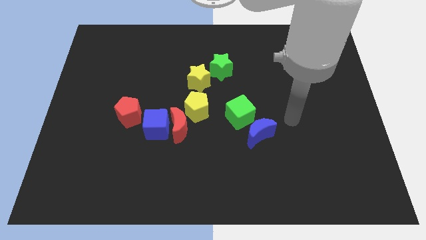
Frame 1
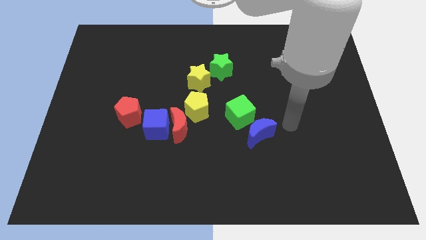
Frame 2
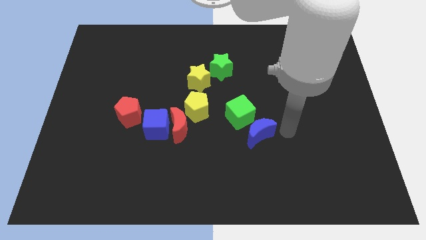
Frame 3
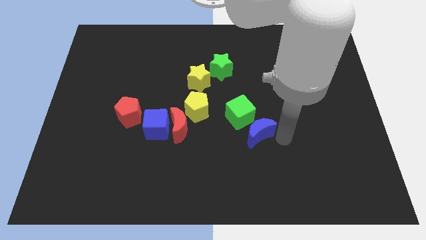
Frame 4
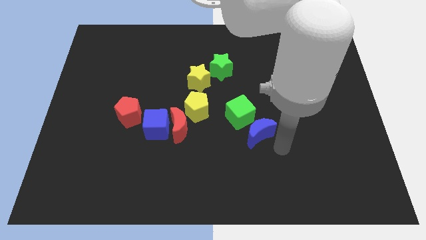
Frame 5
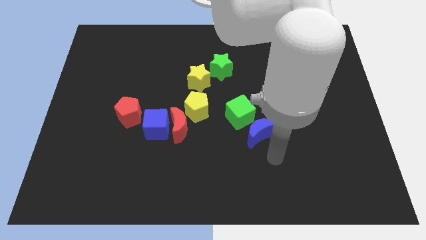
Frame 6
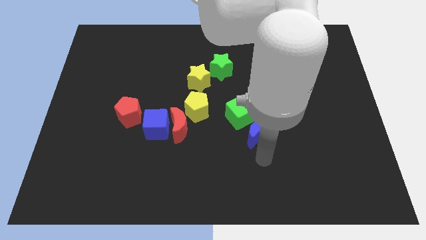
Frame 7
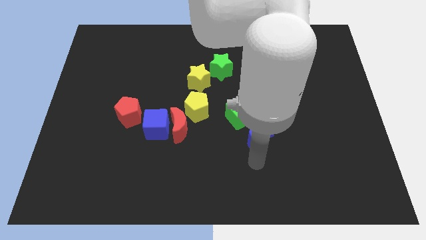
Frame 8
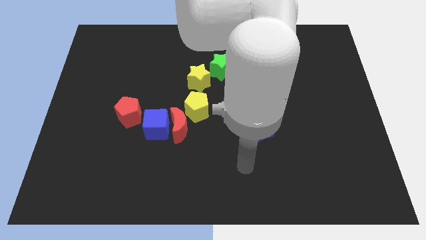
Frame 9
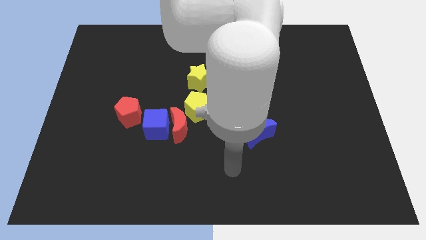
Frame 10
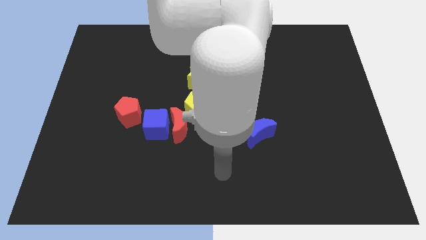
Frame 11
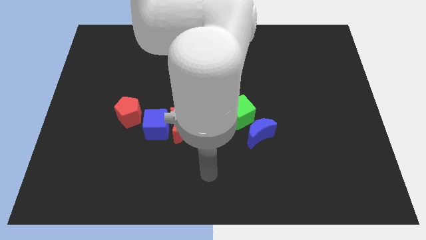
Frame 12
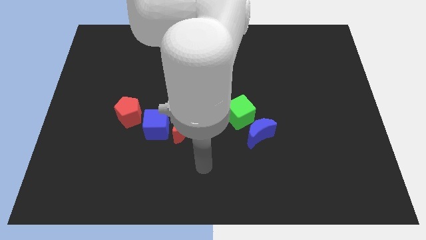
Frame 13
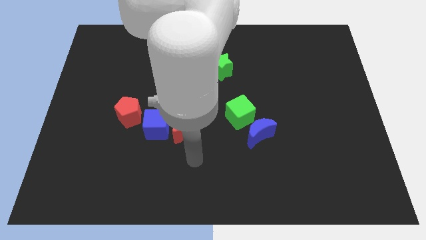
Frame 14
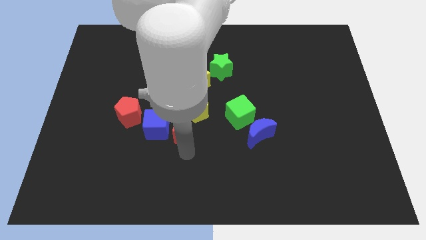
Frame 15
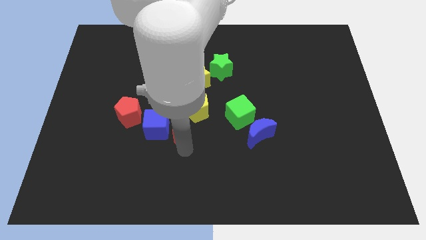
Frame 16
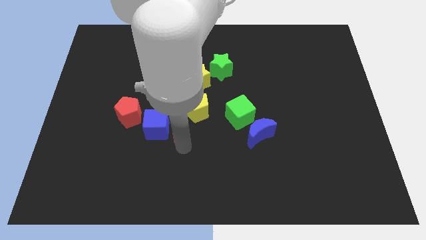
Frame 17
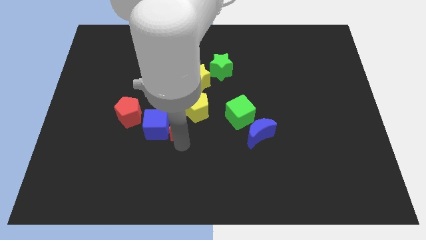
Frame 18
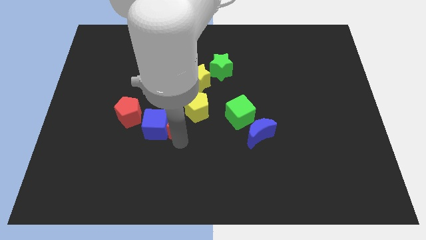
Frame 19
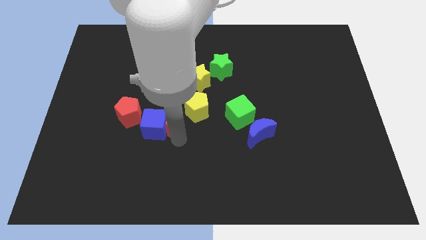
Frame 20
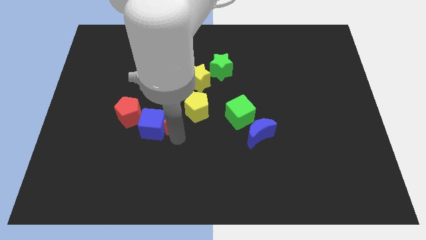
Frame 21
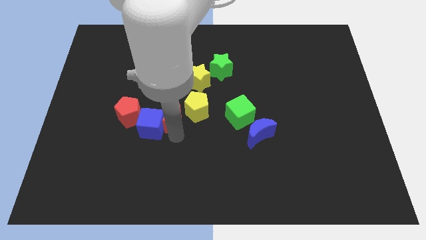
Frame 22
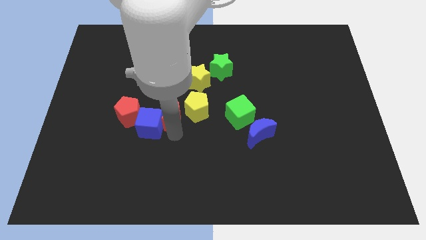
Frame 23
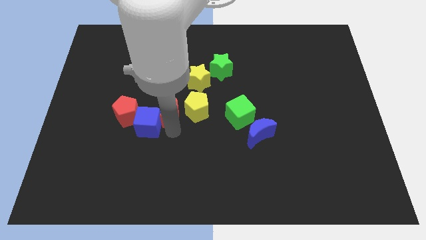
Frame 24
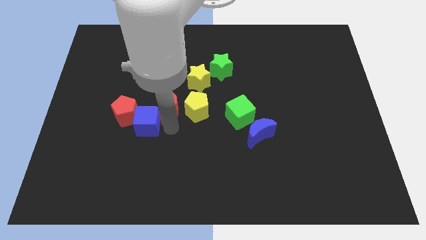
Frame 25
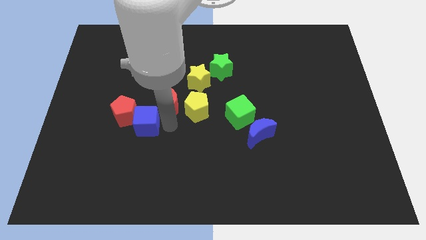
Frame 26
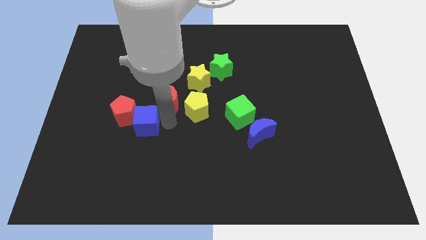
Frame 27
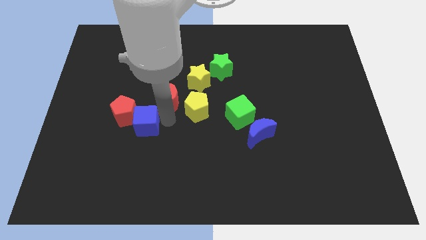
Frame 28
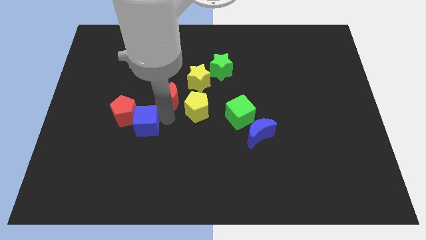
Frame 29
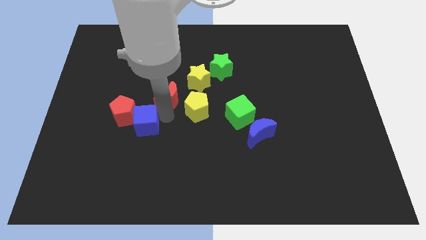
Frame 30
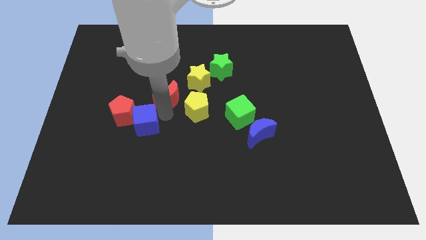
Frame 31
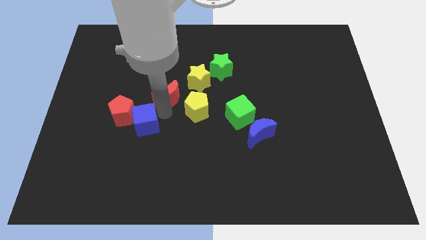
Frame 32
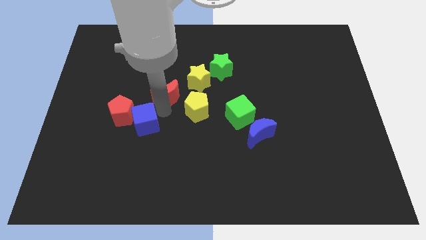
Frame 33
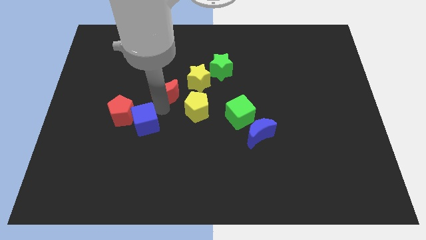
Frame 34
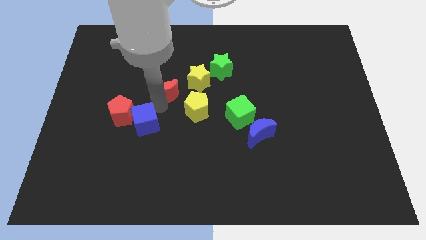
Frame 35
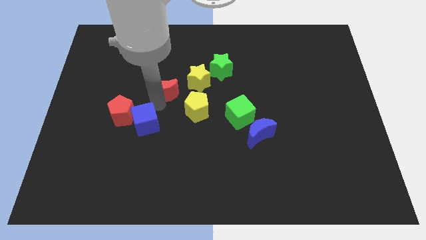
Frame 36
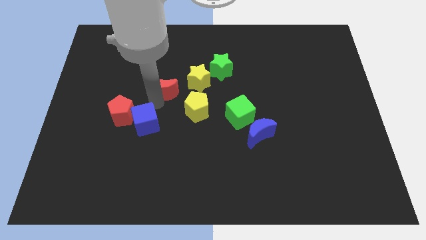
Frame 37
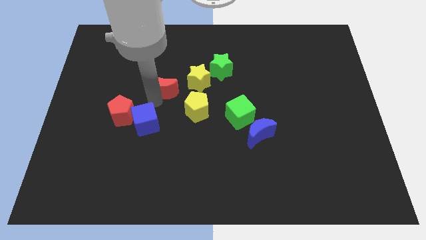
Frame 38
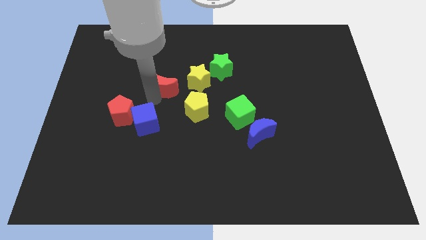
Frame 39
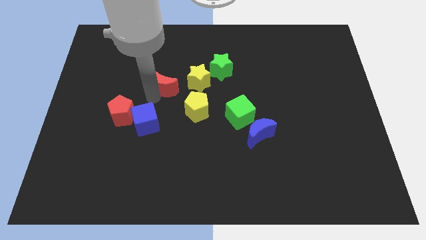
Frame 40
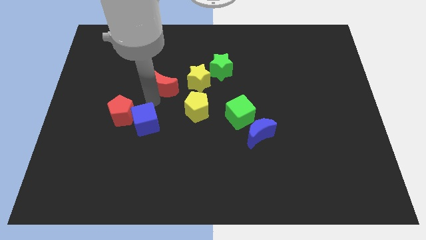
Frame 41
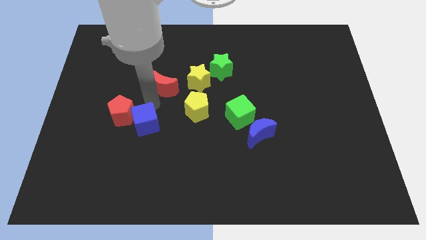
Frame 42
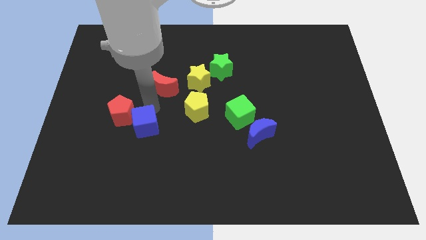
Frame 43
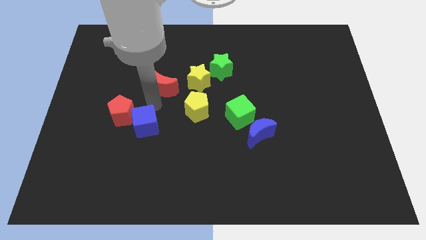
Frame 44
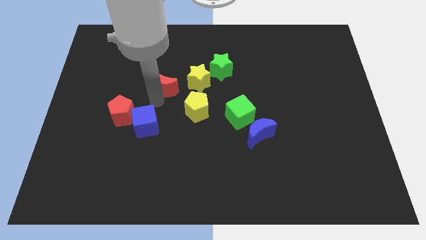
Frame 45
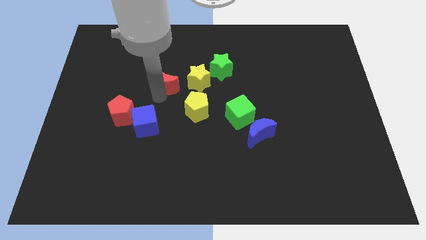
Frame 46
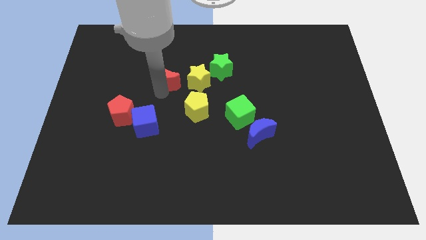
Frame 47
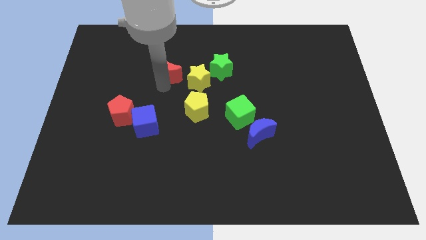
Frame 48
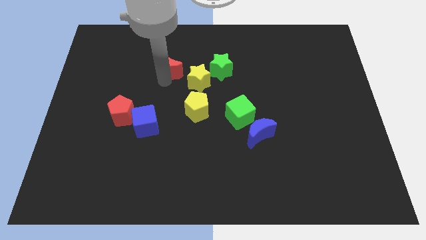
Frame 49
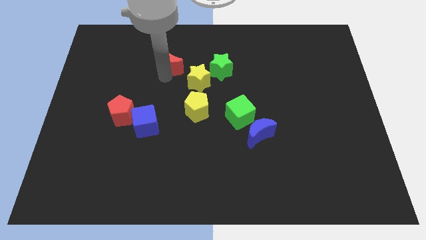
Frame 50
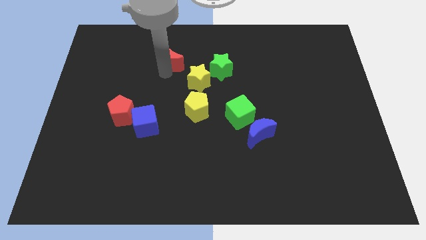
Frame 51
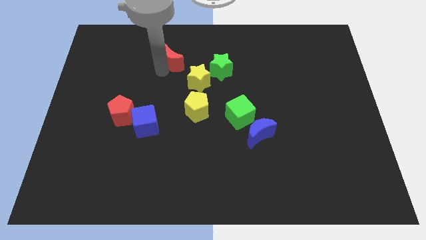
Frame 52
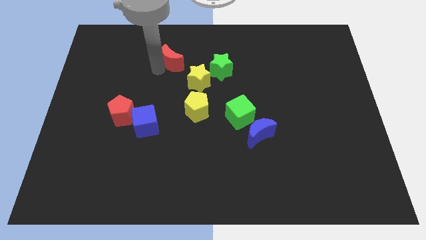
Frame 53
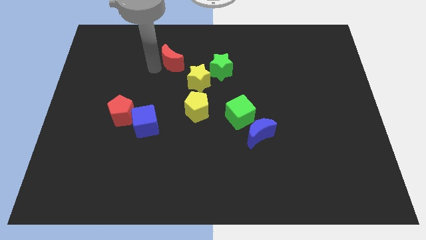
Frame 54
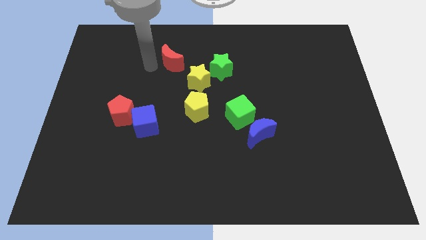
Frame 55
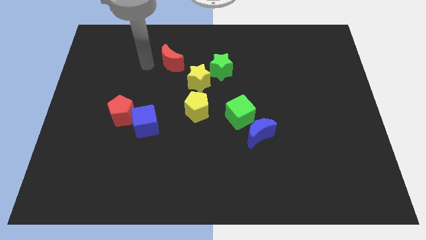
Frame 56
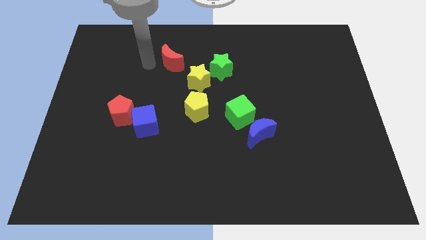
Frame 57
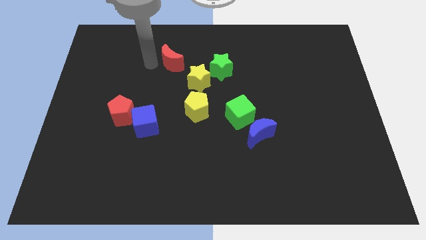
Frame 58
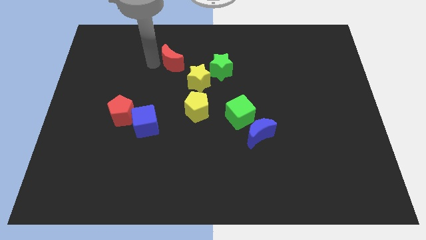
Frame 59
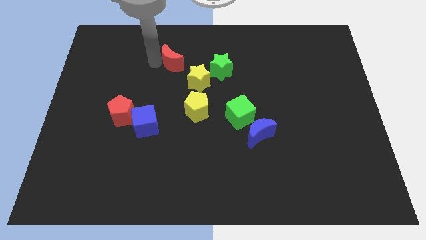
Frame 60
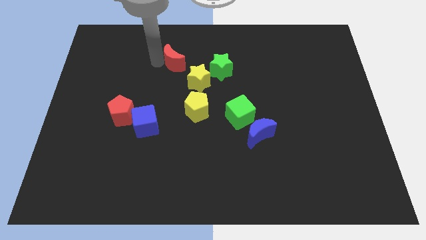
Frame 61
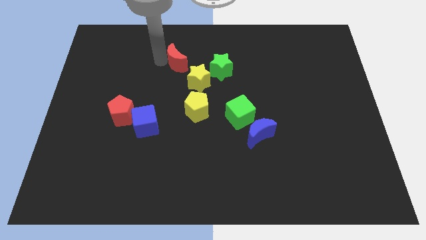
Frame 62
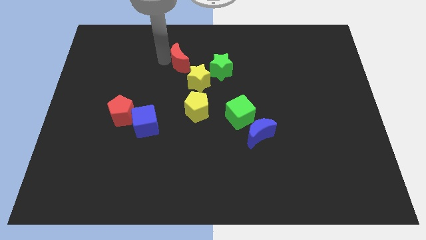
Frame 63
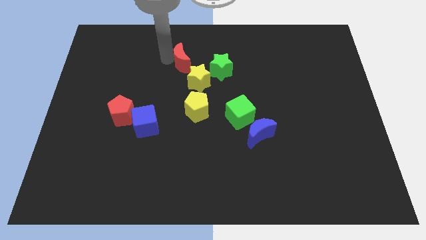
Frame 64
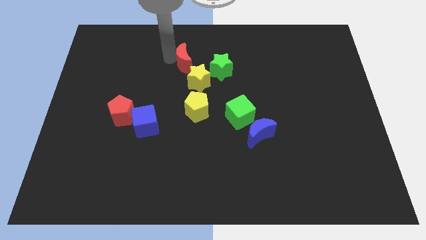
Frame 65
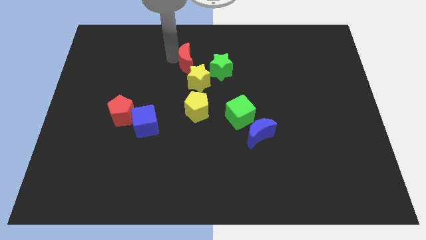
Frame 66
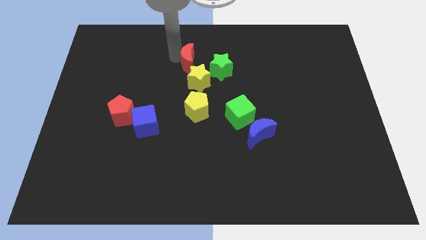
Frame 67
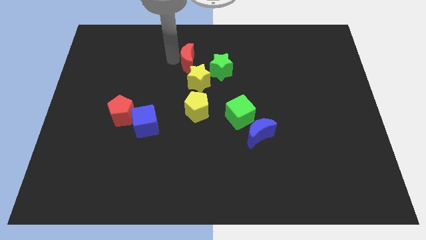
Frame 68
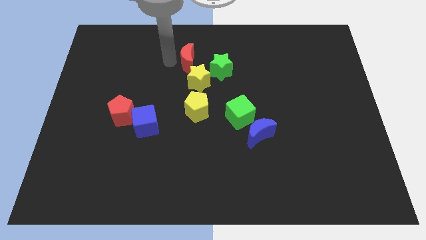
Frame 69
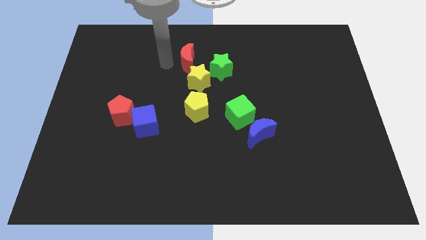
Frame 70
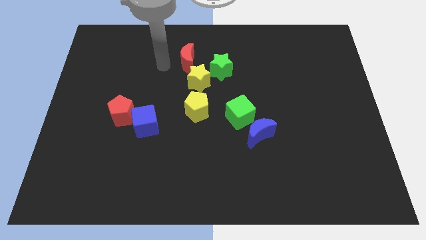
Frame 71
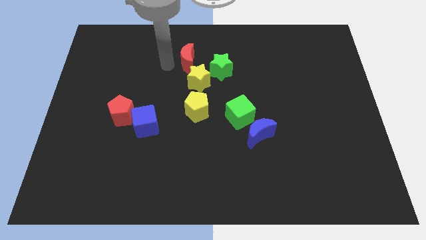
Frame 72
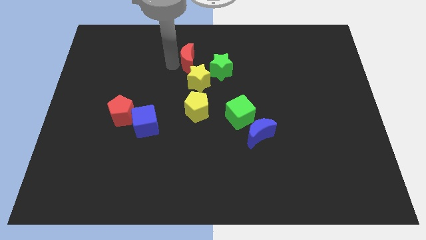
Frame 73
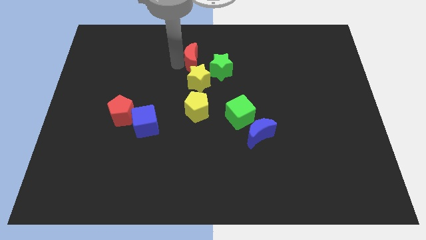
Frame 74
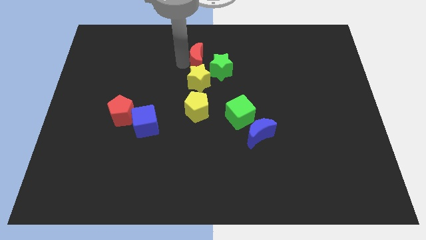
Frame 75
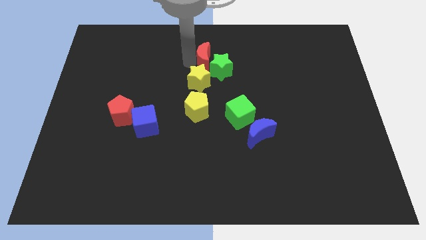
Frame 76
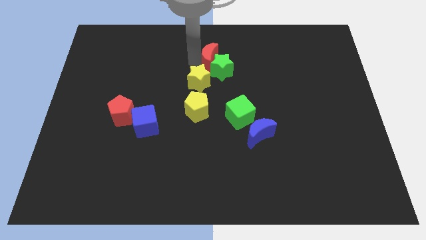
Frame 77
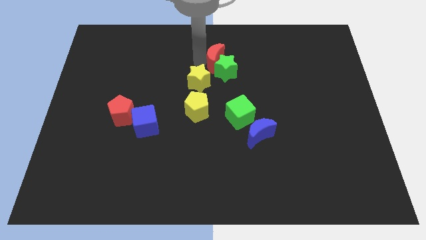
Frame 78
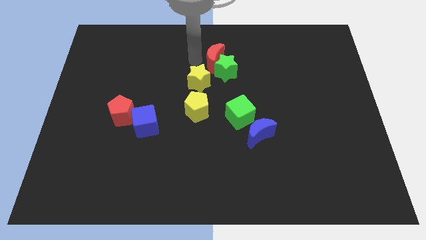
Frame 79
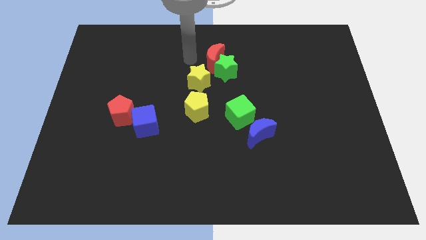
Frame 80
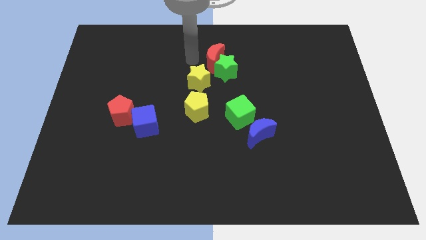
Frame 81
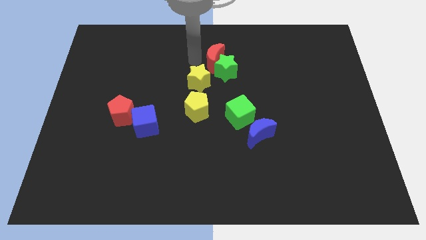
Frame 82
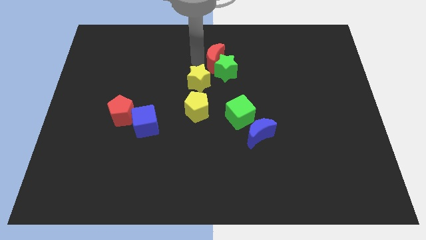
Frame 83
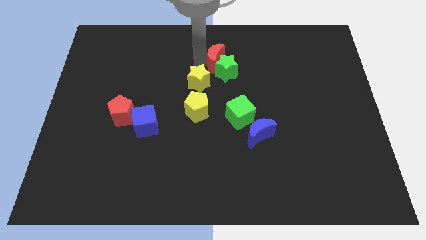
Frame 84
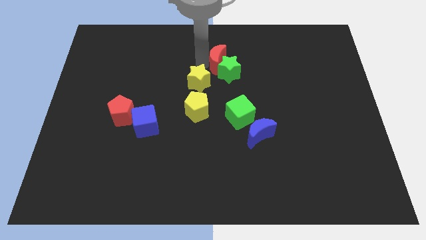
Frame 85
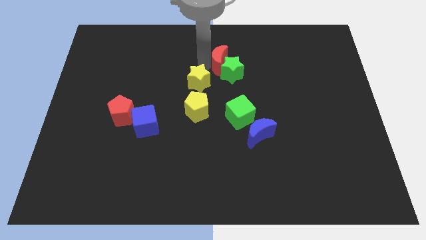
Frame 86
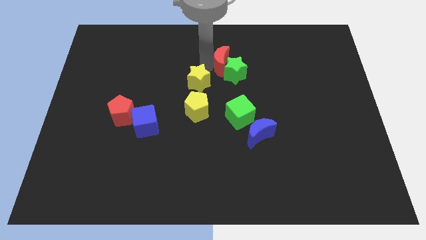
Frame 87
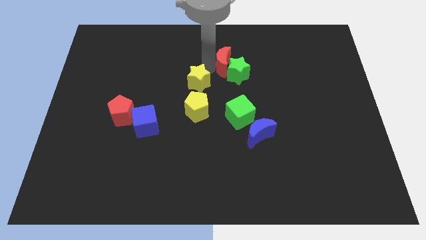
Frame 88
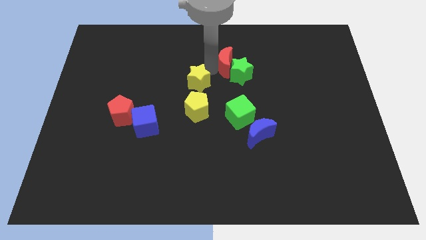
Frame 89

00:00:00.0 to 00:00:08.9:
slide the red moon up and then to the right
